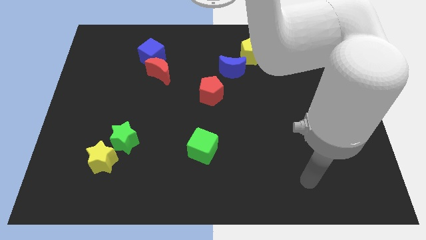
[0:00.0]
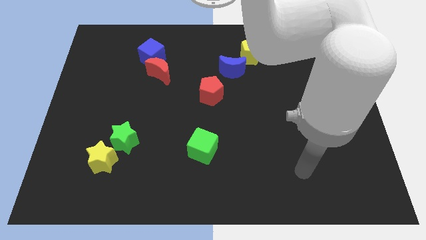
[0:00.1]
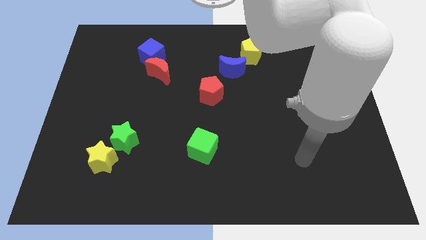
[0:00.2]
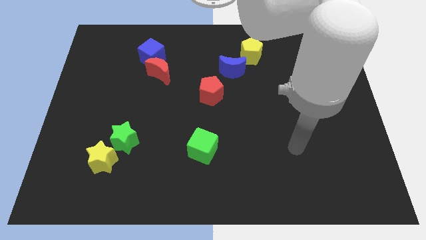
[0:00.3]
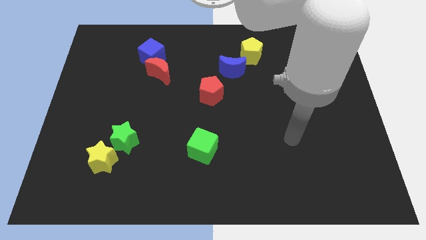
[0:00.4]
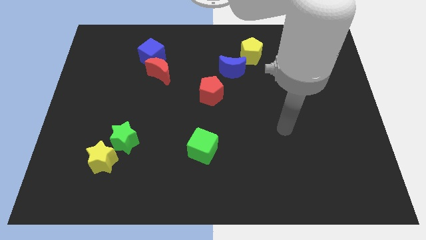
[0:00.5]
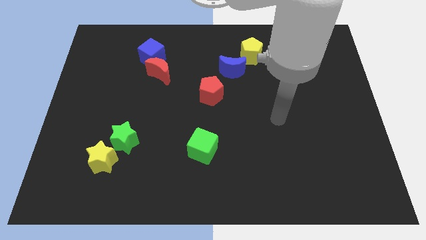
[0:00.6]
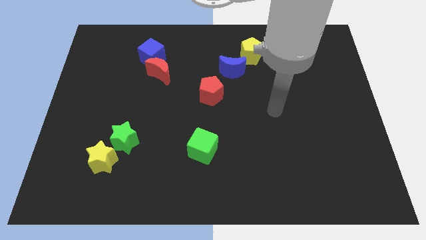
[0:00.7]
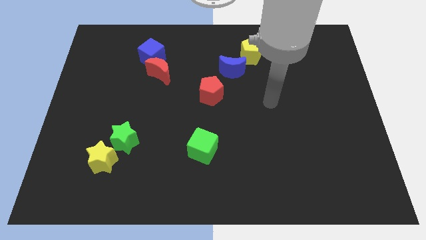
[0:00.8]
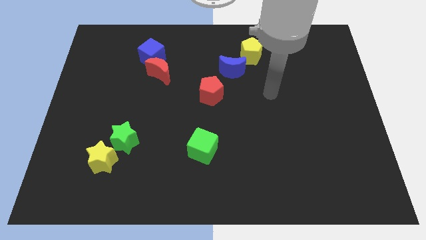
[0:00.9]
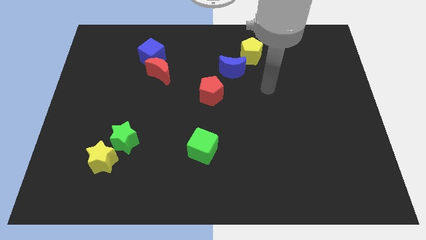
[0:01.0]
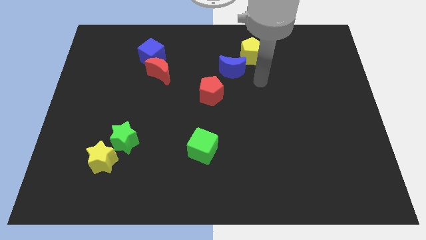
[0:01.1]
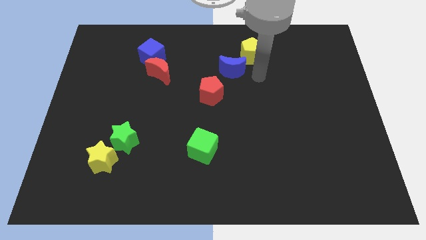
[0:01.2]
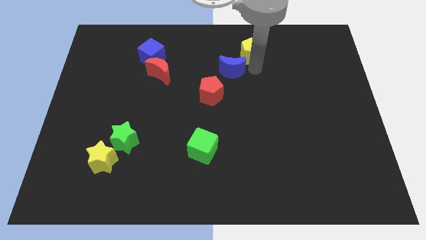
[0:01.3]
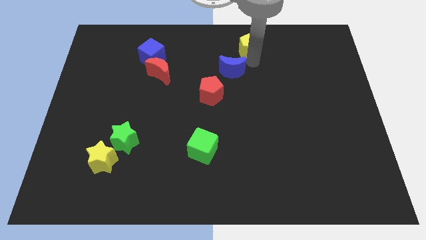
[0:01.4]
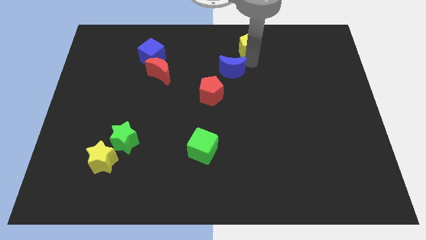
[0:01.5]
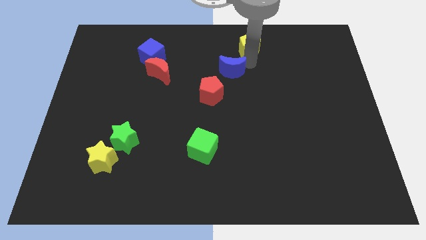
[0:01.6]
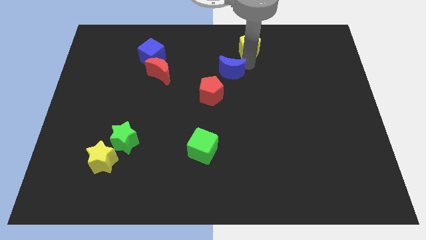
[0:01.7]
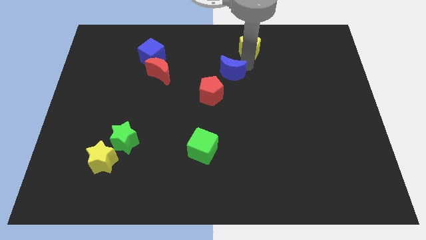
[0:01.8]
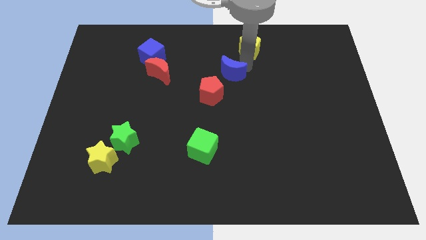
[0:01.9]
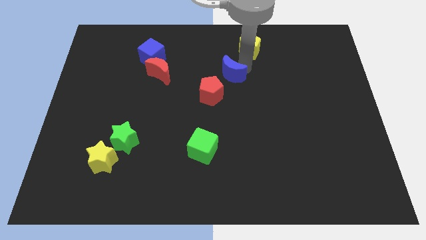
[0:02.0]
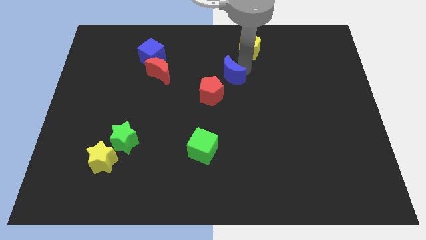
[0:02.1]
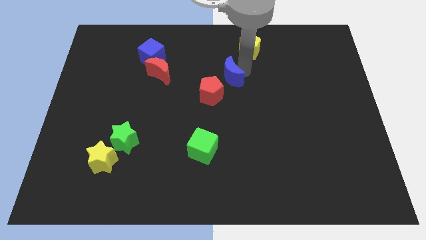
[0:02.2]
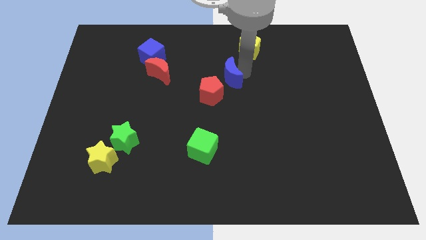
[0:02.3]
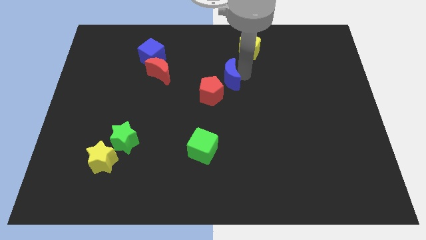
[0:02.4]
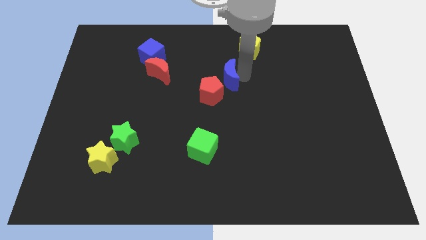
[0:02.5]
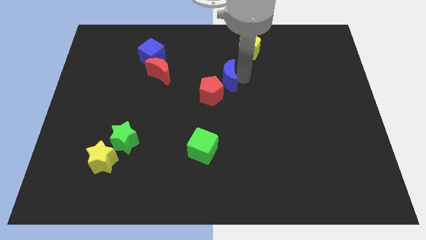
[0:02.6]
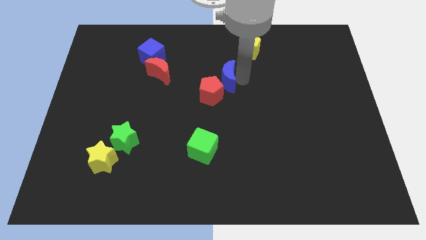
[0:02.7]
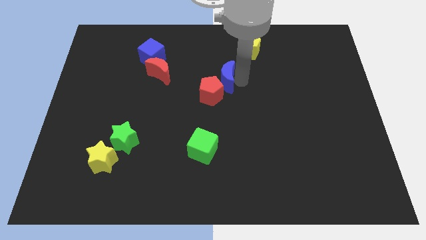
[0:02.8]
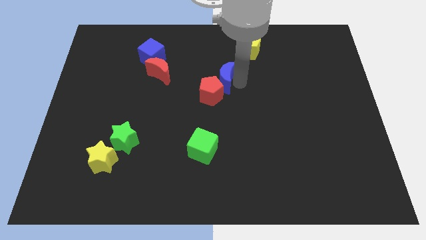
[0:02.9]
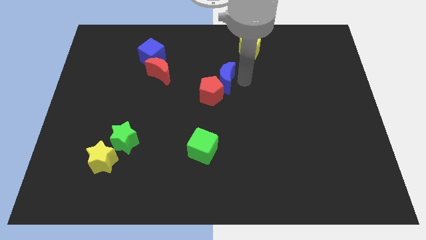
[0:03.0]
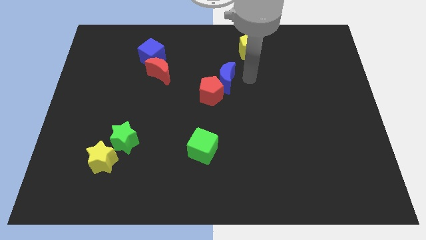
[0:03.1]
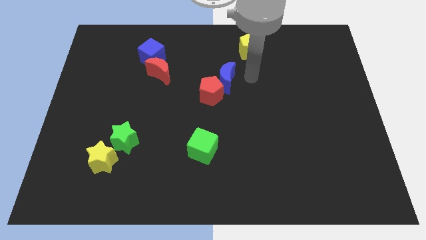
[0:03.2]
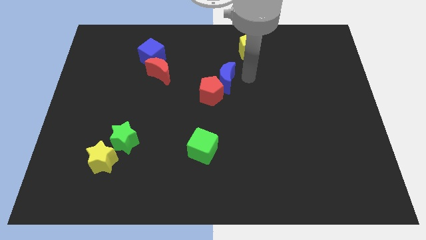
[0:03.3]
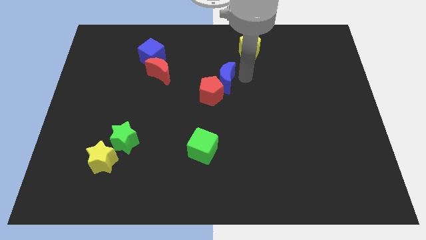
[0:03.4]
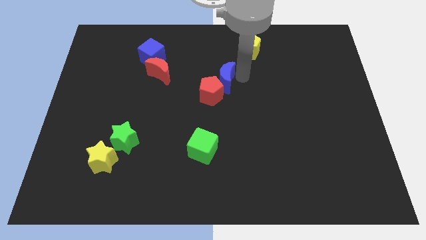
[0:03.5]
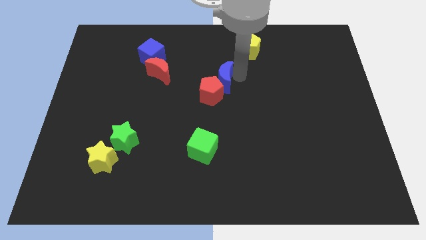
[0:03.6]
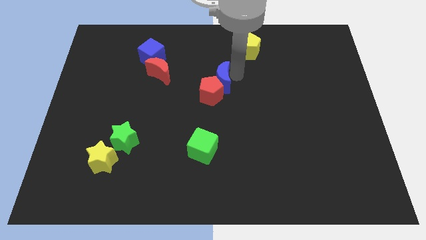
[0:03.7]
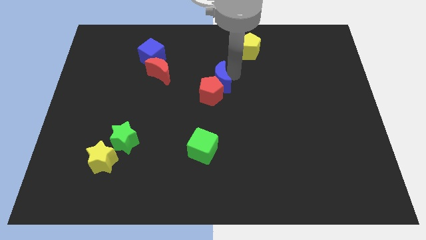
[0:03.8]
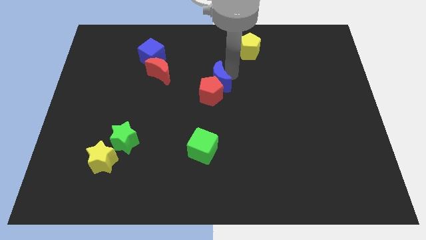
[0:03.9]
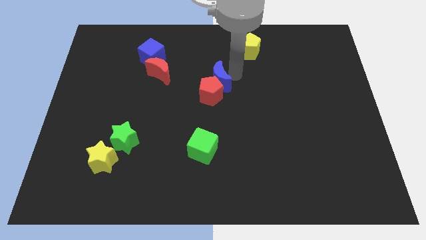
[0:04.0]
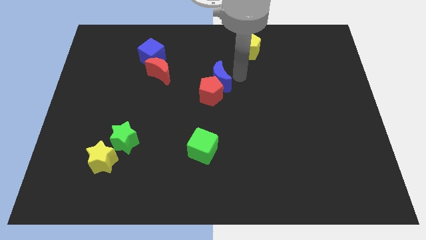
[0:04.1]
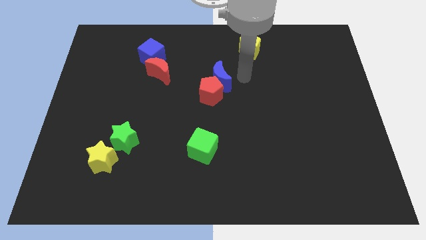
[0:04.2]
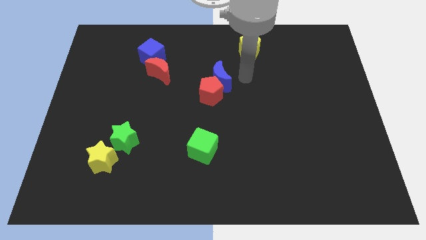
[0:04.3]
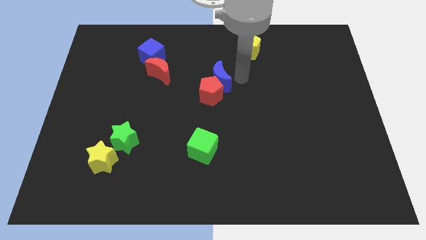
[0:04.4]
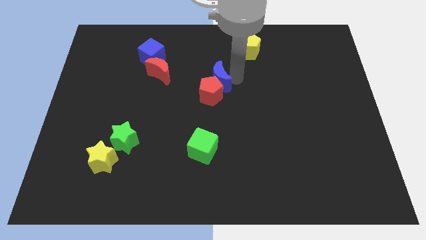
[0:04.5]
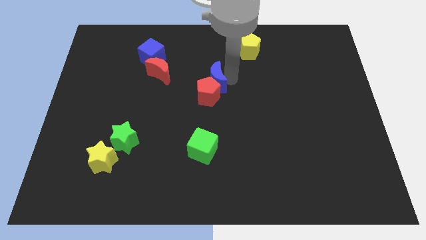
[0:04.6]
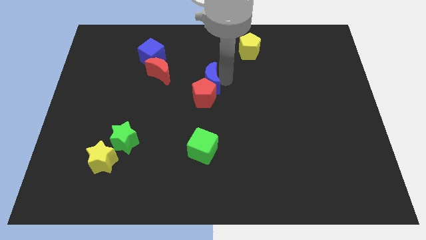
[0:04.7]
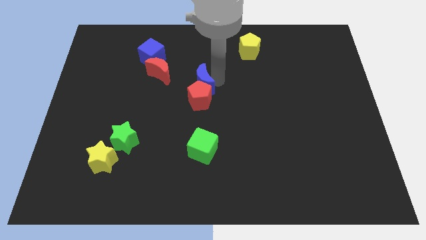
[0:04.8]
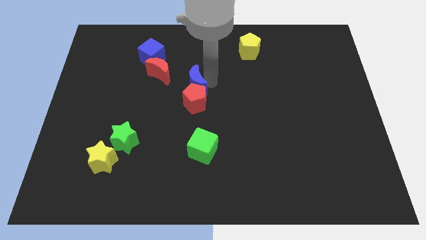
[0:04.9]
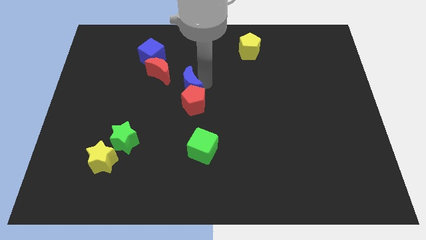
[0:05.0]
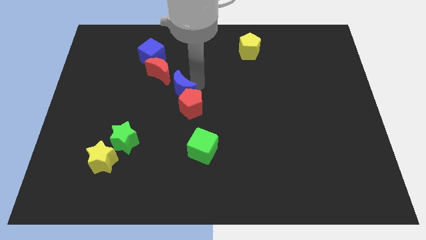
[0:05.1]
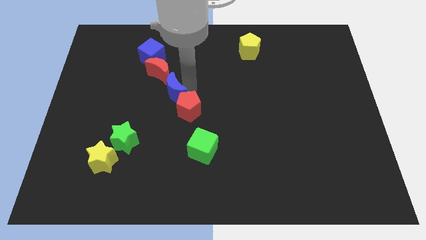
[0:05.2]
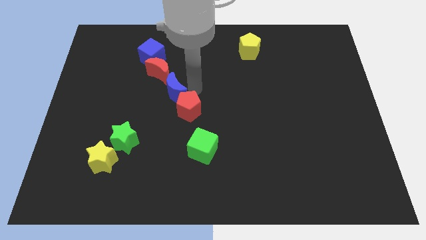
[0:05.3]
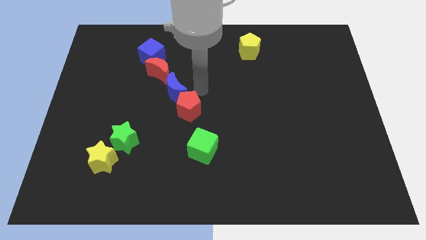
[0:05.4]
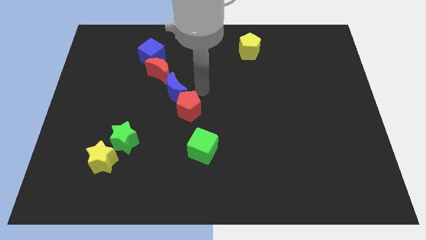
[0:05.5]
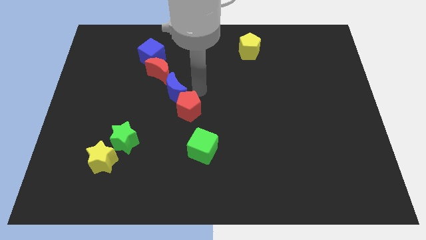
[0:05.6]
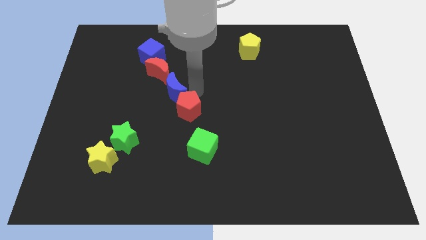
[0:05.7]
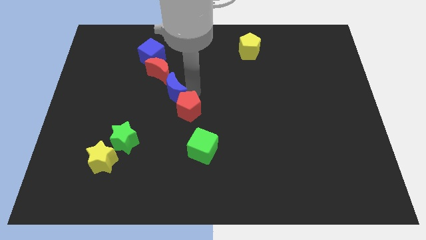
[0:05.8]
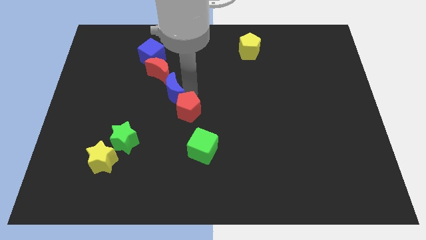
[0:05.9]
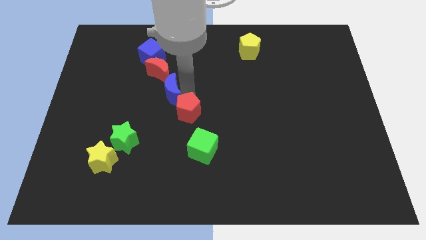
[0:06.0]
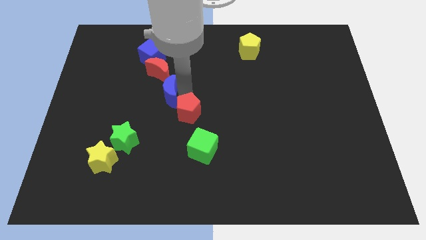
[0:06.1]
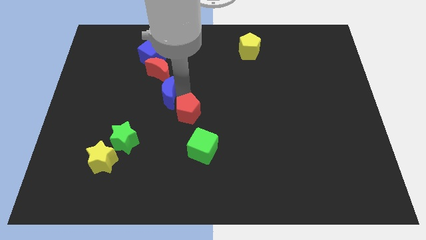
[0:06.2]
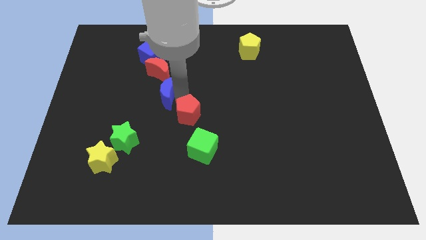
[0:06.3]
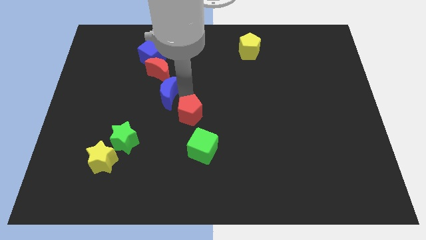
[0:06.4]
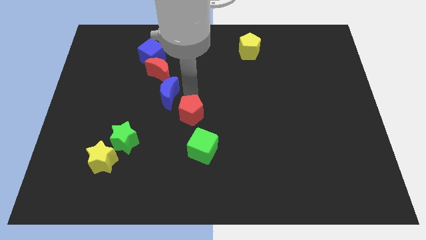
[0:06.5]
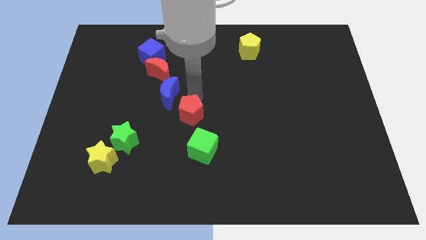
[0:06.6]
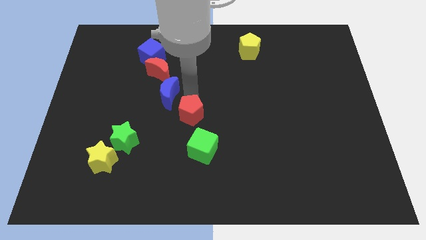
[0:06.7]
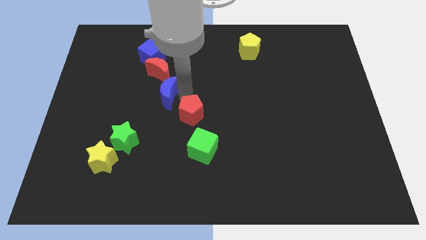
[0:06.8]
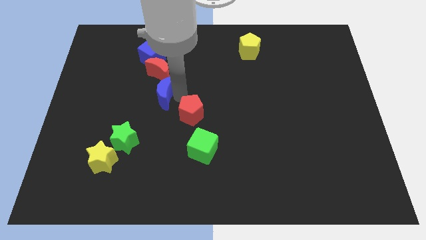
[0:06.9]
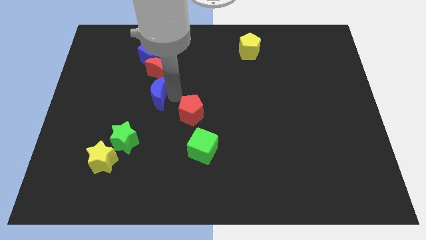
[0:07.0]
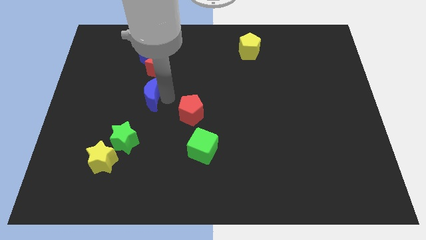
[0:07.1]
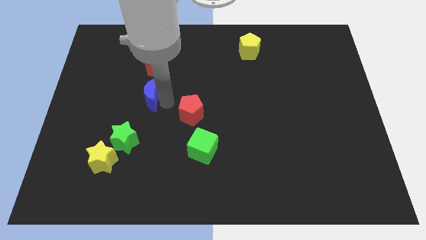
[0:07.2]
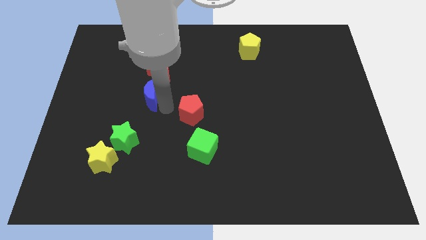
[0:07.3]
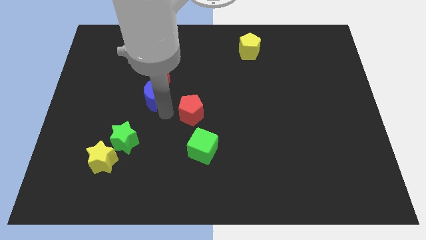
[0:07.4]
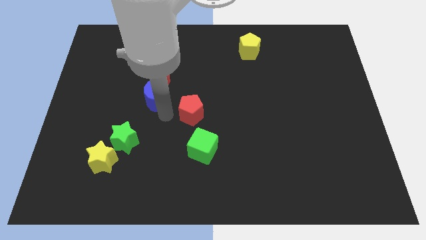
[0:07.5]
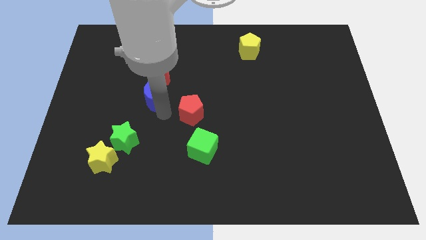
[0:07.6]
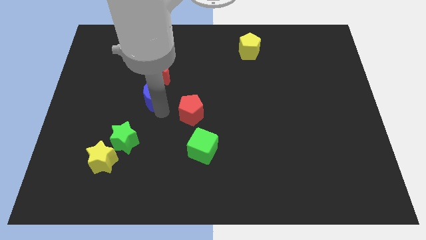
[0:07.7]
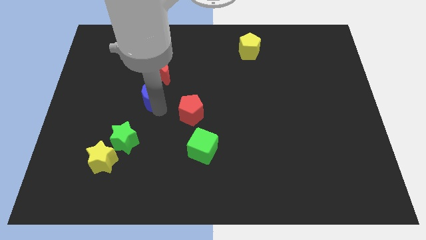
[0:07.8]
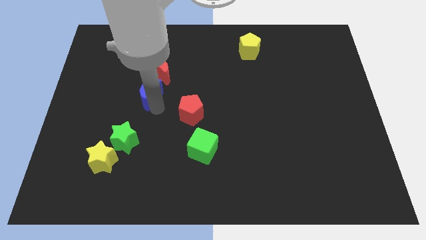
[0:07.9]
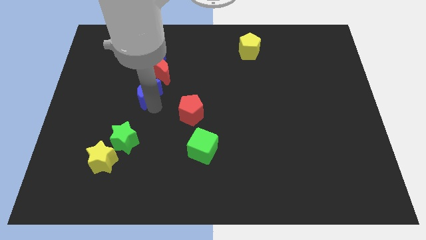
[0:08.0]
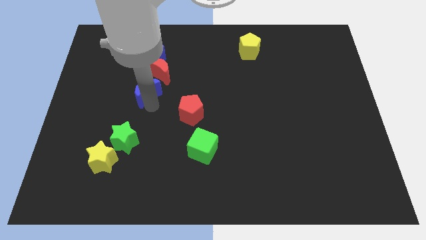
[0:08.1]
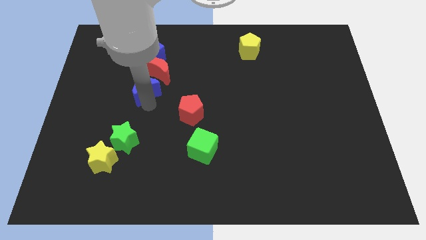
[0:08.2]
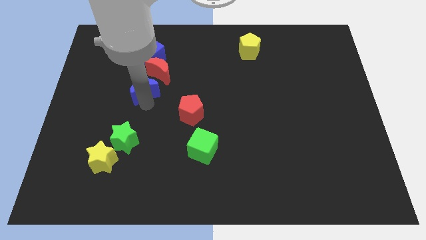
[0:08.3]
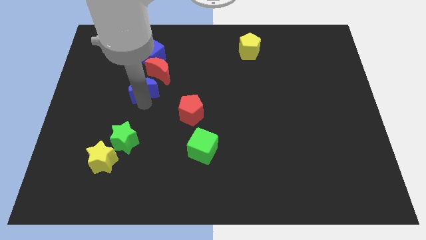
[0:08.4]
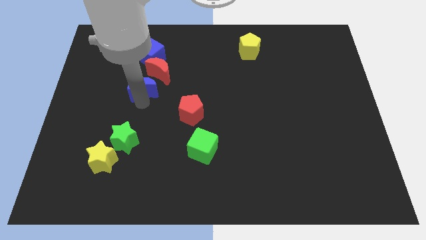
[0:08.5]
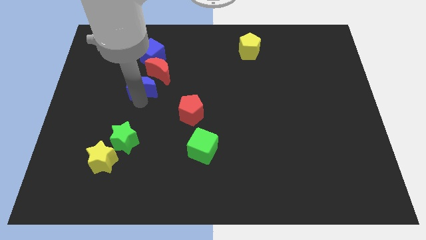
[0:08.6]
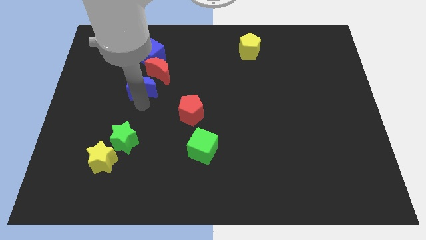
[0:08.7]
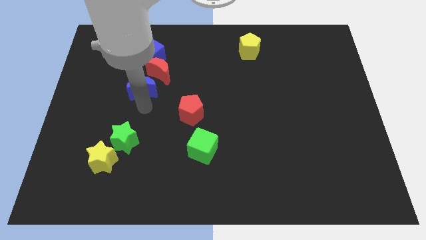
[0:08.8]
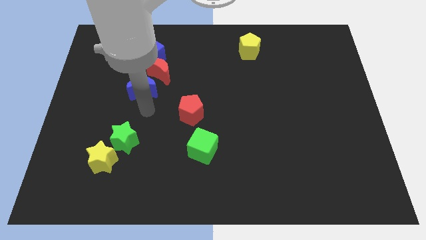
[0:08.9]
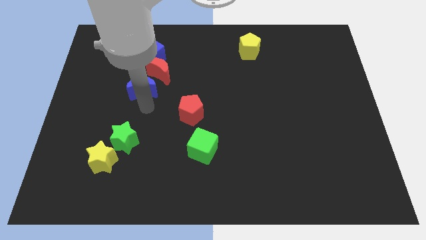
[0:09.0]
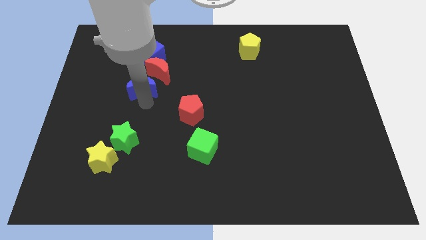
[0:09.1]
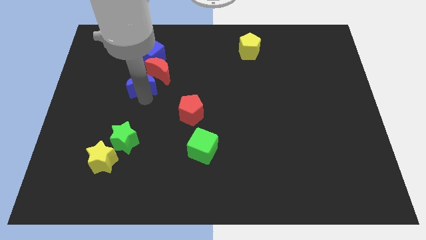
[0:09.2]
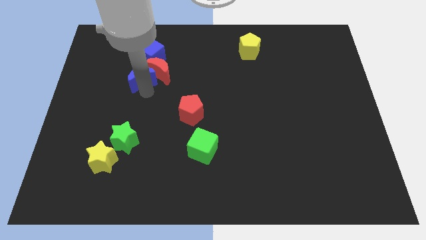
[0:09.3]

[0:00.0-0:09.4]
push the blue moon just left of the red moon
